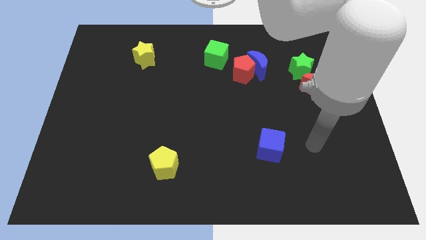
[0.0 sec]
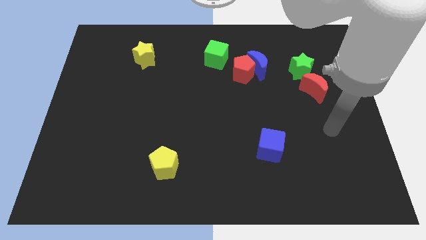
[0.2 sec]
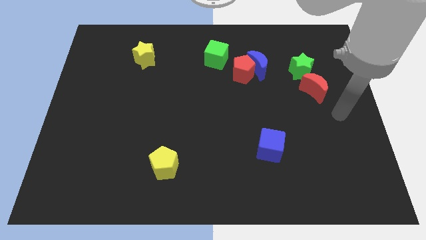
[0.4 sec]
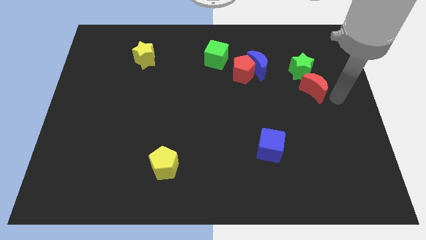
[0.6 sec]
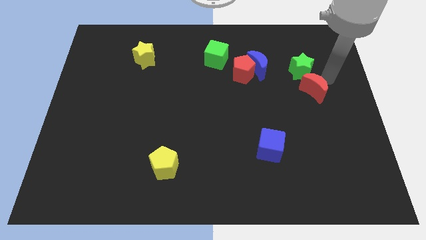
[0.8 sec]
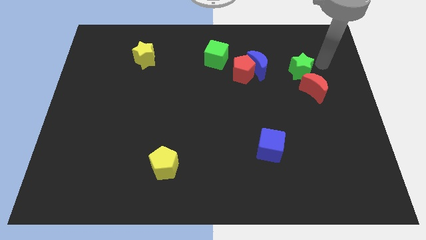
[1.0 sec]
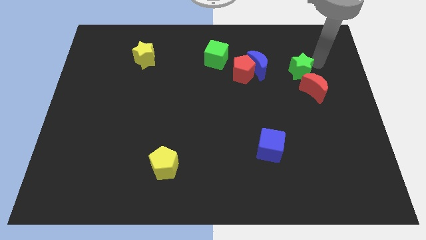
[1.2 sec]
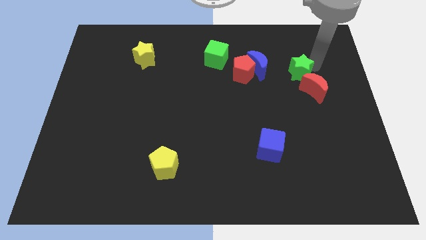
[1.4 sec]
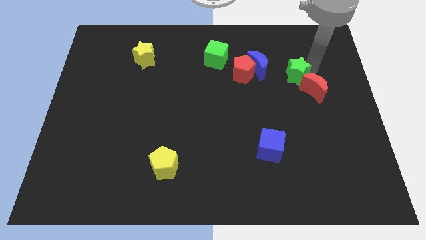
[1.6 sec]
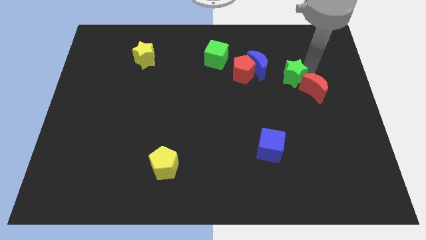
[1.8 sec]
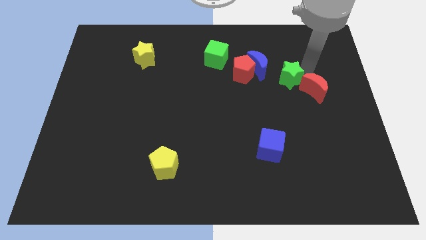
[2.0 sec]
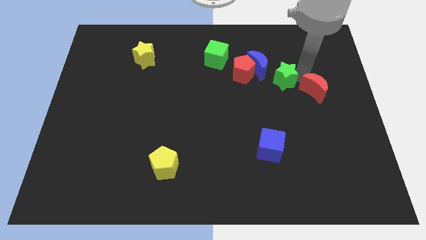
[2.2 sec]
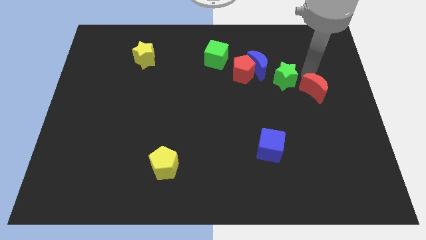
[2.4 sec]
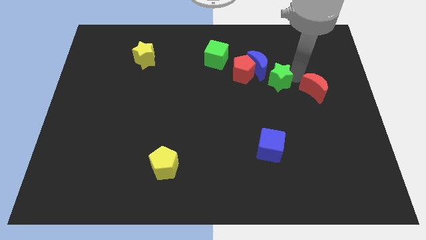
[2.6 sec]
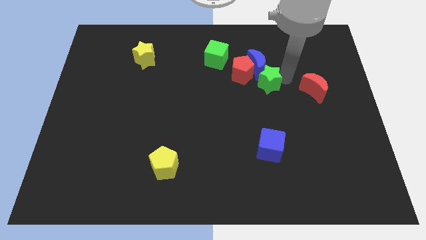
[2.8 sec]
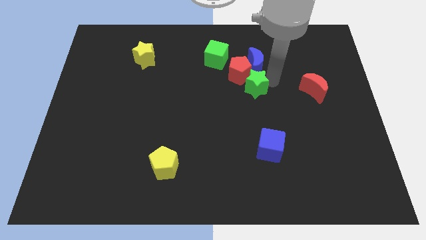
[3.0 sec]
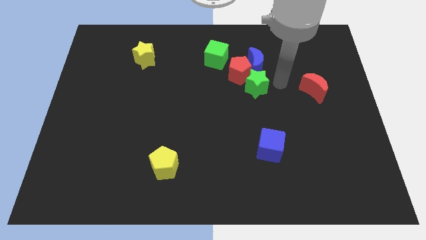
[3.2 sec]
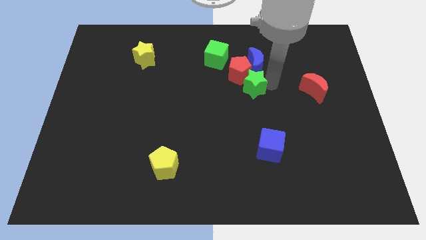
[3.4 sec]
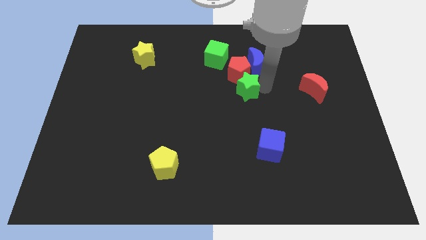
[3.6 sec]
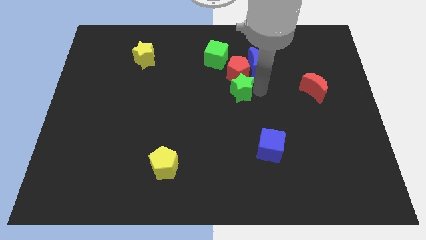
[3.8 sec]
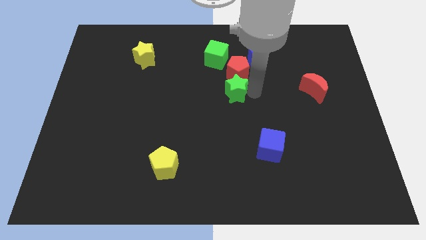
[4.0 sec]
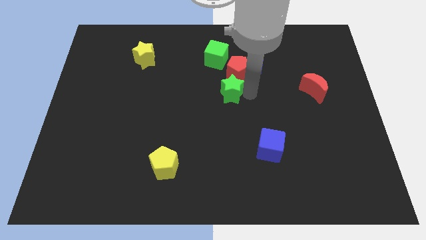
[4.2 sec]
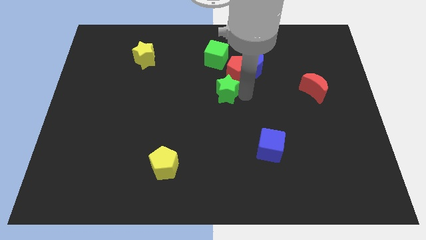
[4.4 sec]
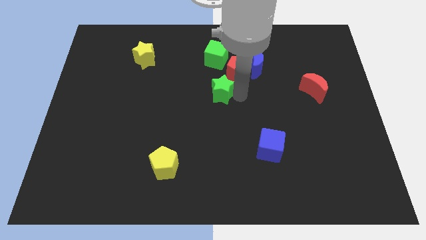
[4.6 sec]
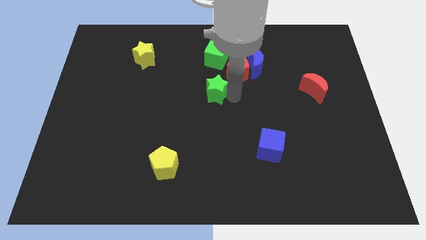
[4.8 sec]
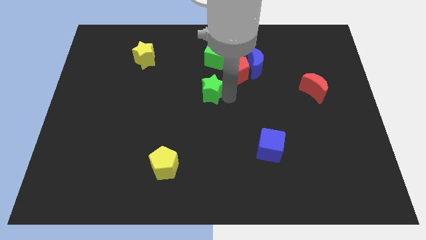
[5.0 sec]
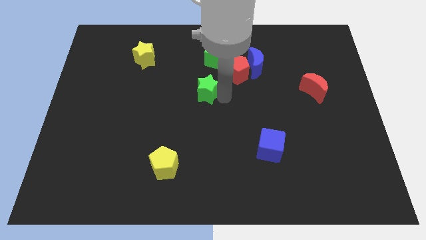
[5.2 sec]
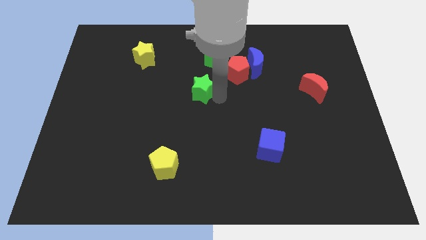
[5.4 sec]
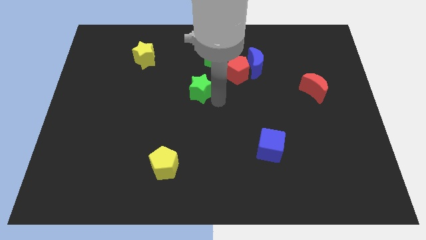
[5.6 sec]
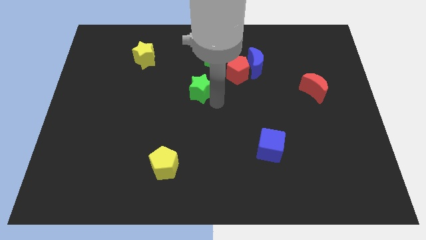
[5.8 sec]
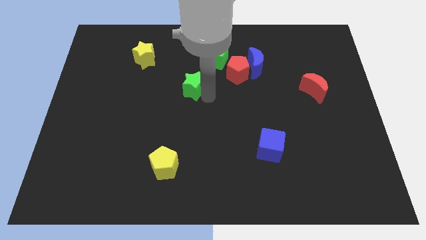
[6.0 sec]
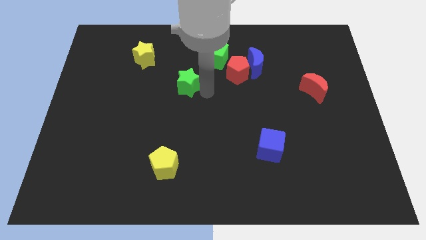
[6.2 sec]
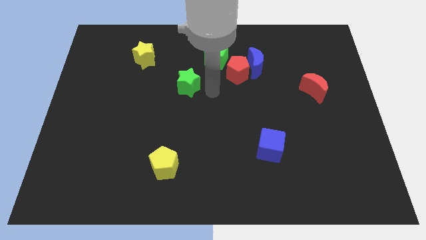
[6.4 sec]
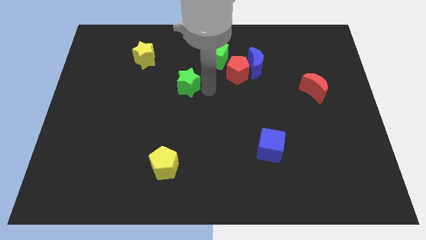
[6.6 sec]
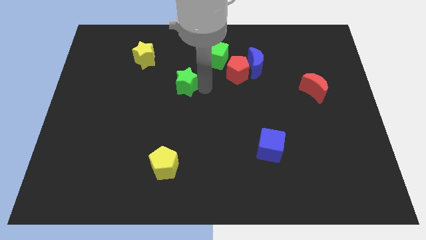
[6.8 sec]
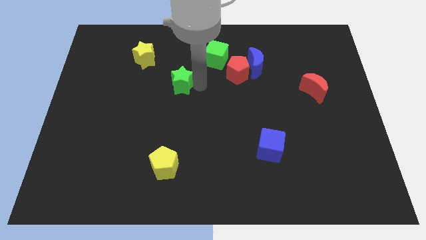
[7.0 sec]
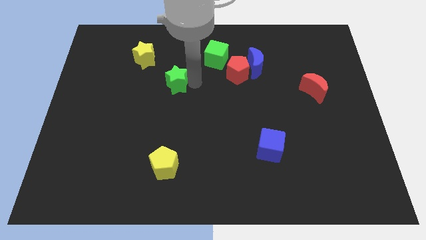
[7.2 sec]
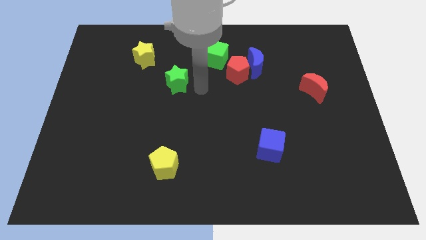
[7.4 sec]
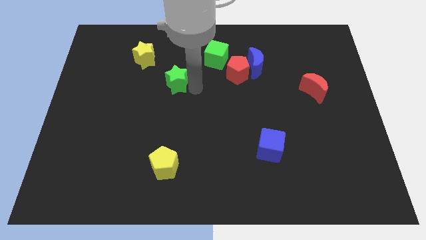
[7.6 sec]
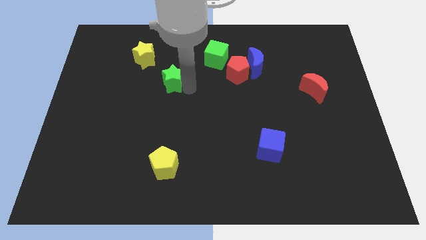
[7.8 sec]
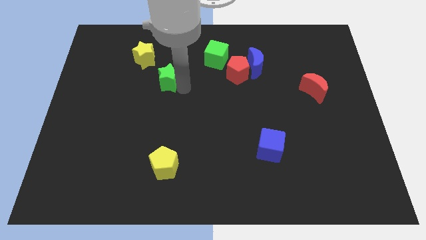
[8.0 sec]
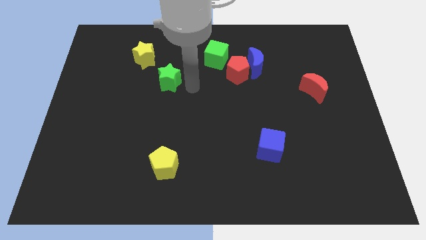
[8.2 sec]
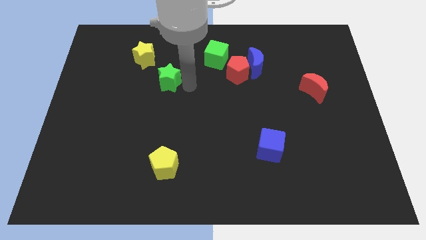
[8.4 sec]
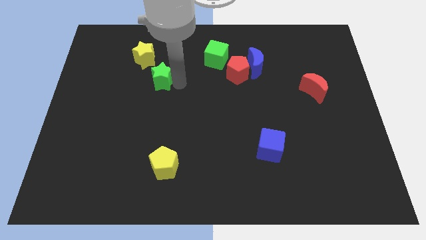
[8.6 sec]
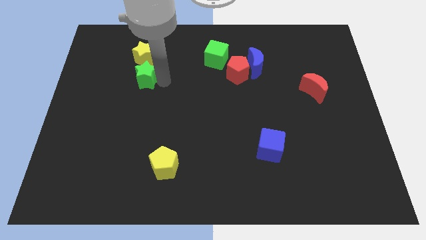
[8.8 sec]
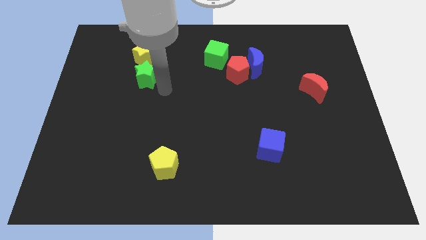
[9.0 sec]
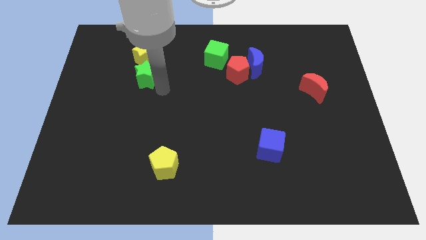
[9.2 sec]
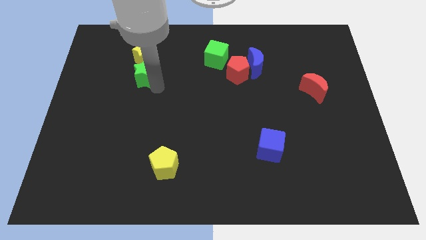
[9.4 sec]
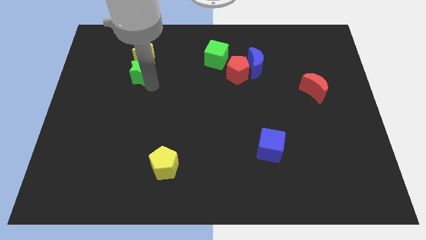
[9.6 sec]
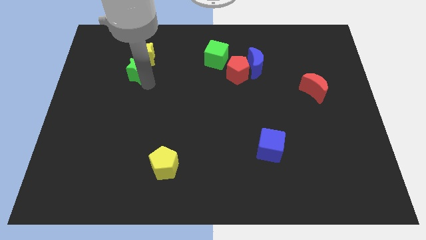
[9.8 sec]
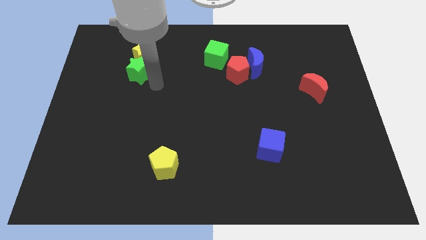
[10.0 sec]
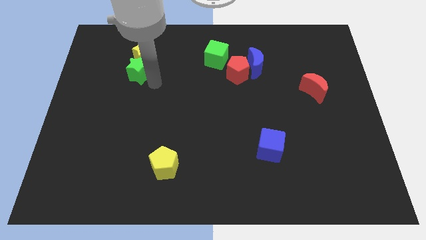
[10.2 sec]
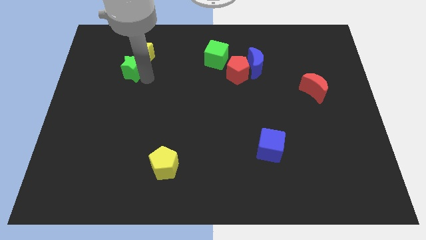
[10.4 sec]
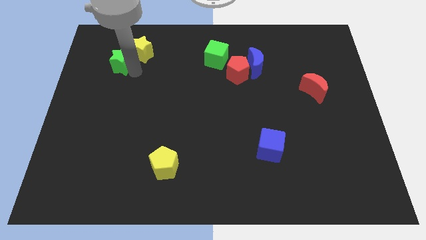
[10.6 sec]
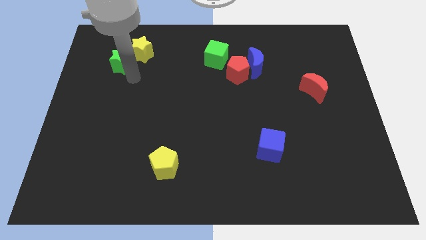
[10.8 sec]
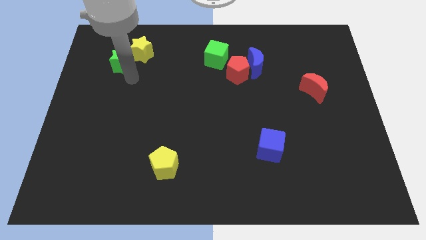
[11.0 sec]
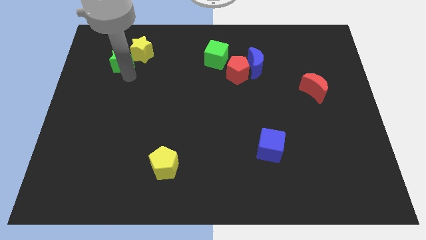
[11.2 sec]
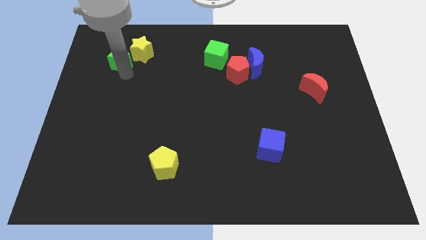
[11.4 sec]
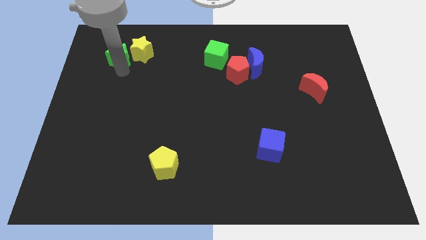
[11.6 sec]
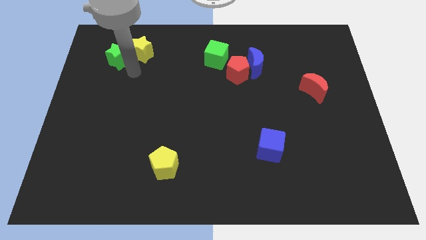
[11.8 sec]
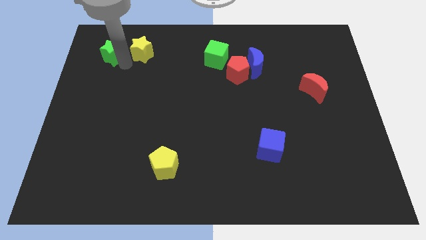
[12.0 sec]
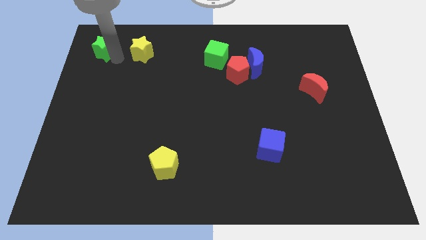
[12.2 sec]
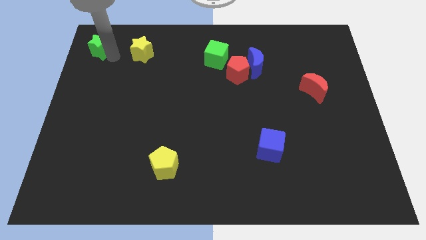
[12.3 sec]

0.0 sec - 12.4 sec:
slide the green star to the top left corner
